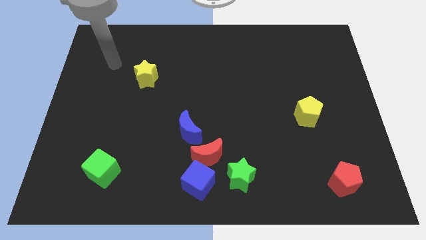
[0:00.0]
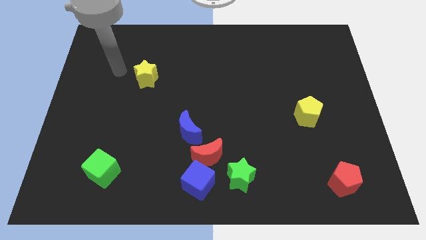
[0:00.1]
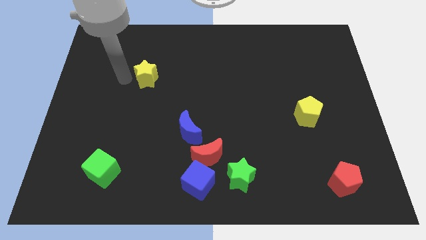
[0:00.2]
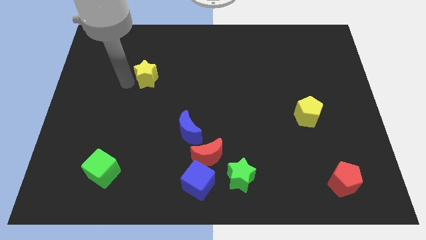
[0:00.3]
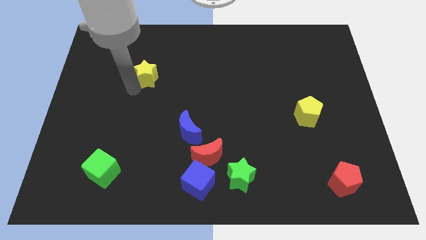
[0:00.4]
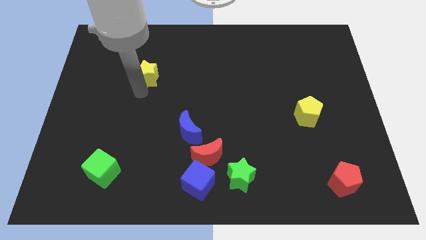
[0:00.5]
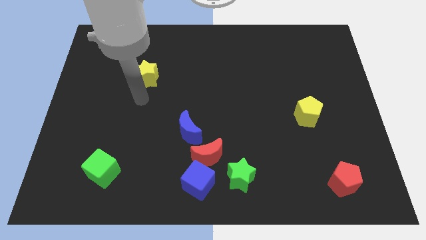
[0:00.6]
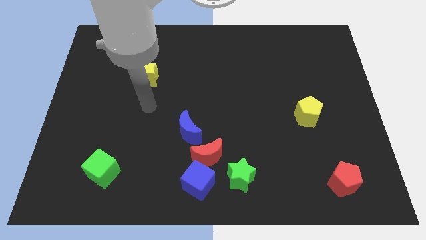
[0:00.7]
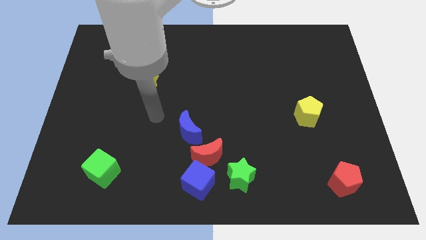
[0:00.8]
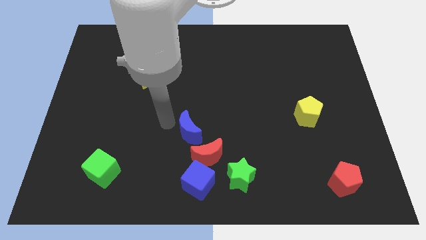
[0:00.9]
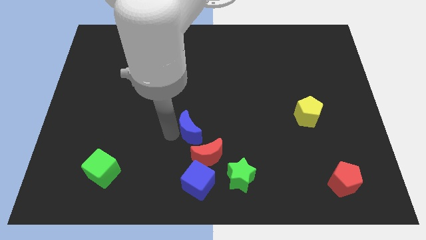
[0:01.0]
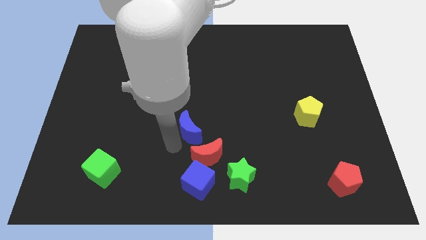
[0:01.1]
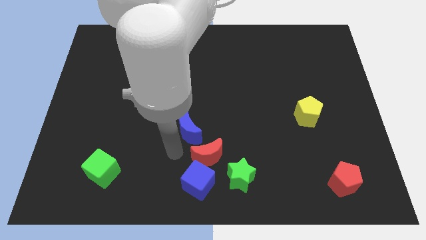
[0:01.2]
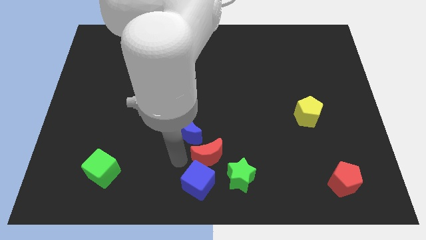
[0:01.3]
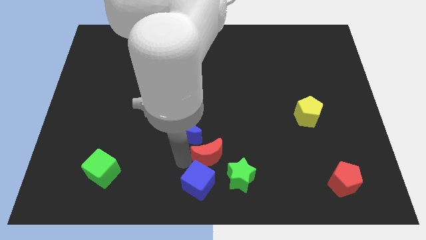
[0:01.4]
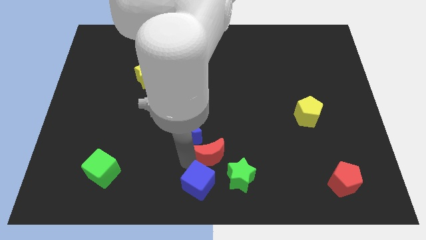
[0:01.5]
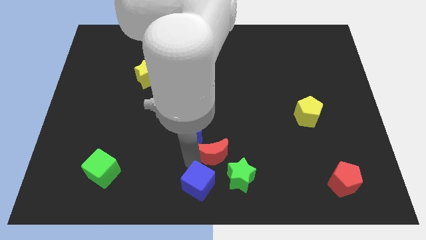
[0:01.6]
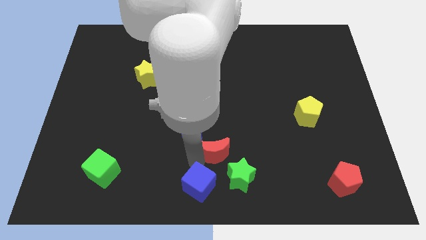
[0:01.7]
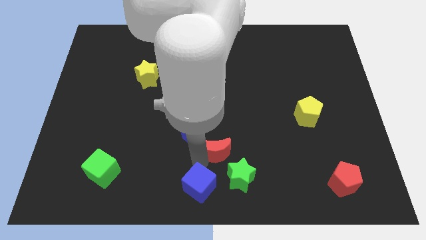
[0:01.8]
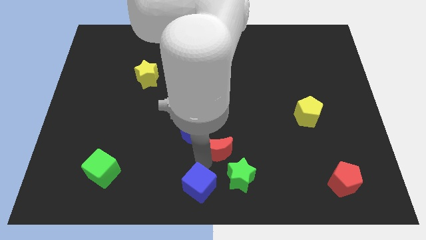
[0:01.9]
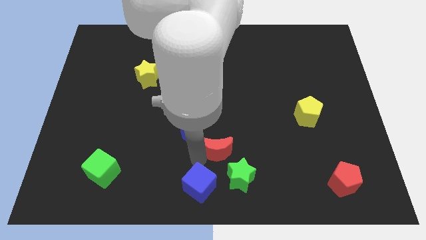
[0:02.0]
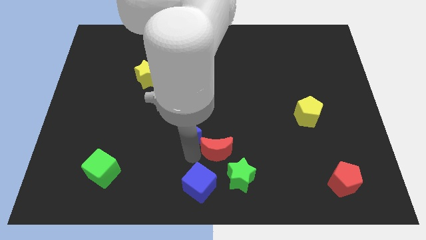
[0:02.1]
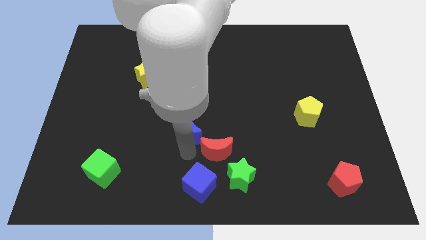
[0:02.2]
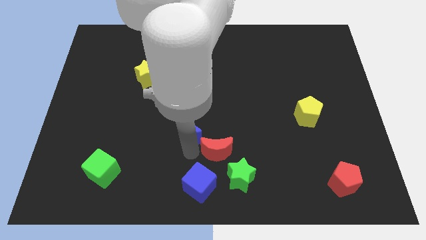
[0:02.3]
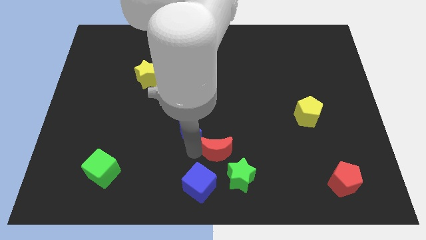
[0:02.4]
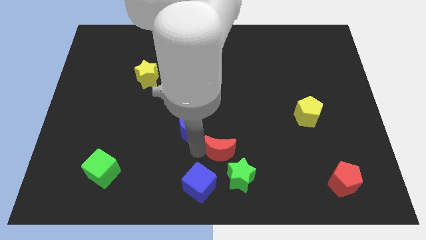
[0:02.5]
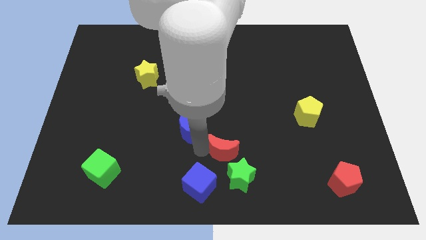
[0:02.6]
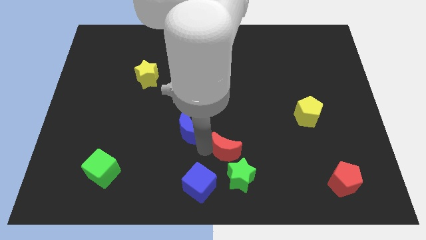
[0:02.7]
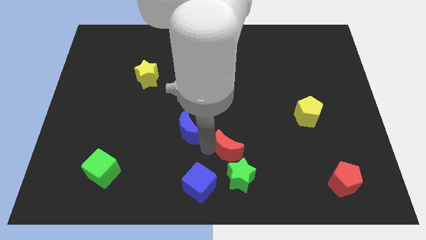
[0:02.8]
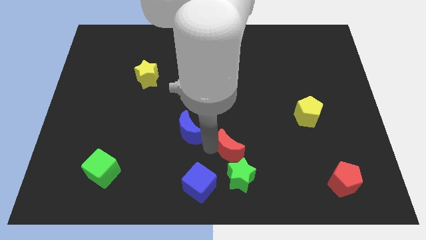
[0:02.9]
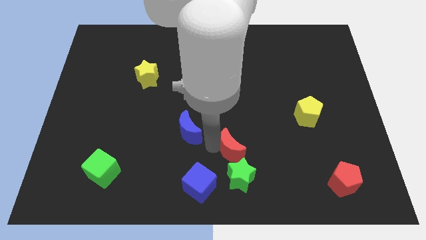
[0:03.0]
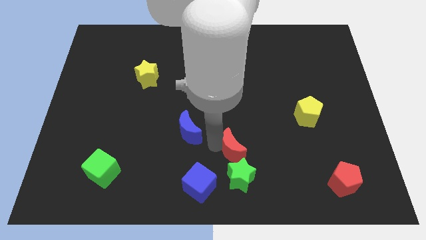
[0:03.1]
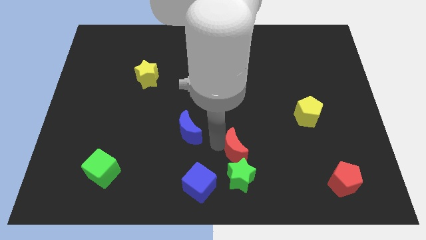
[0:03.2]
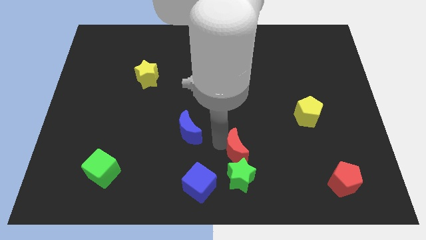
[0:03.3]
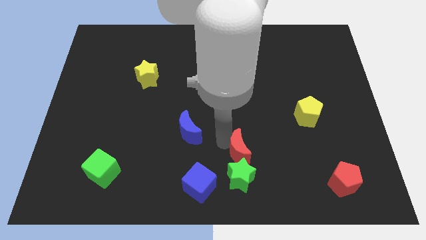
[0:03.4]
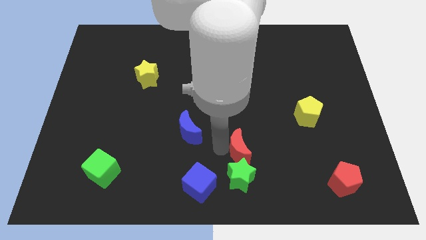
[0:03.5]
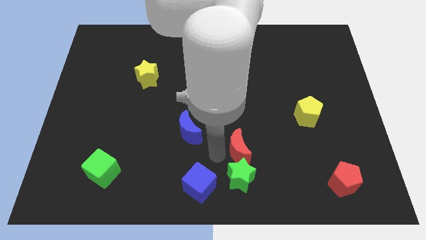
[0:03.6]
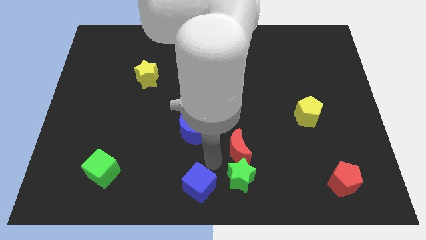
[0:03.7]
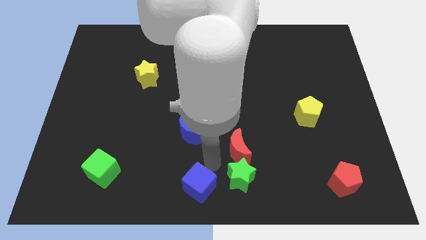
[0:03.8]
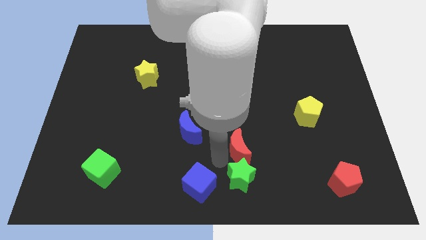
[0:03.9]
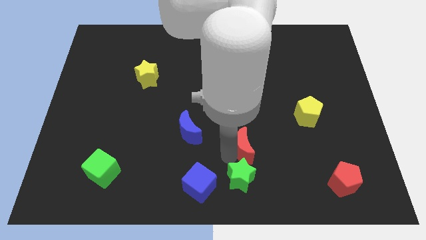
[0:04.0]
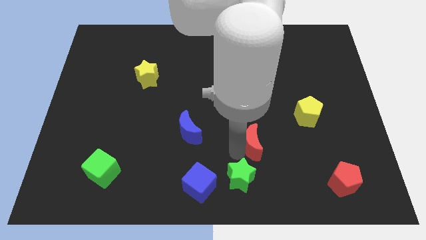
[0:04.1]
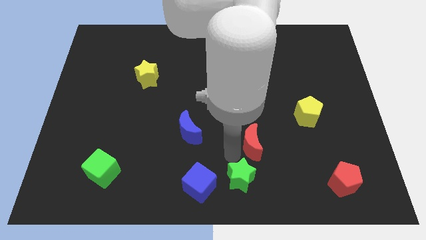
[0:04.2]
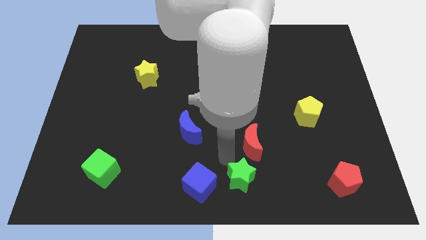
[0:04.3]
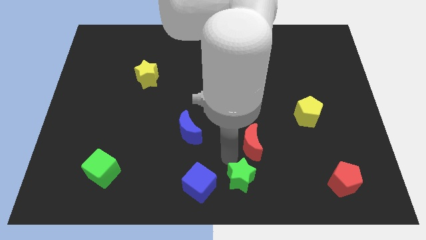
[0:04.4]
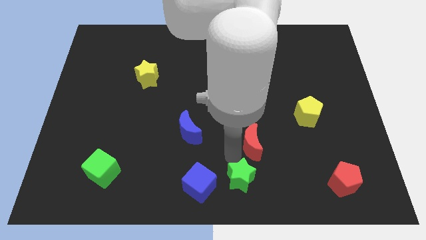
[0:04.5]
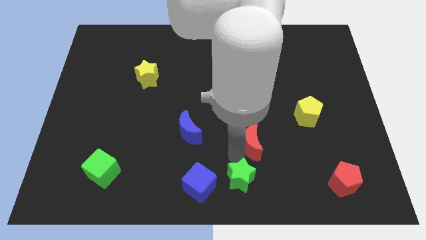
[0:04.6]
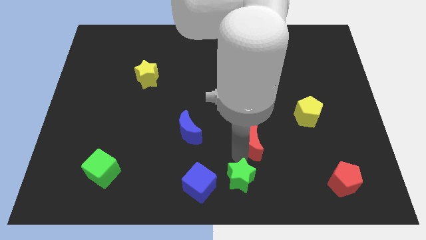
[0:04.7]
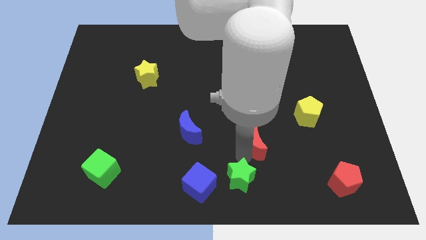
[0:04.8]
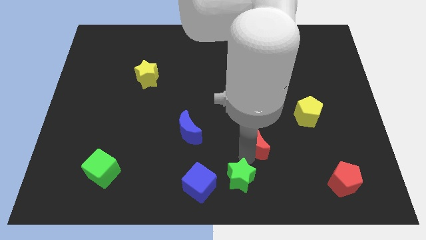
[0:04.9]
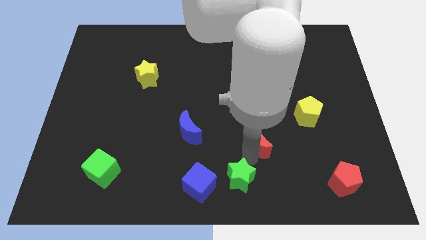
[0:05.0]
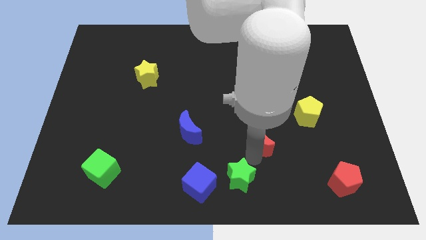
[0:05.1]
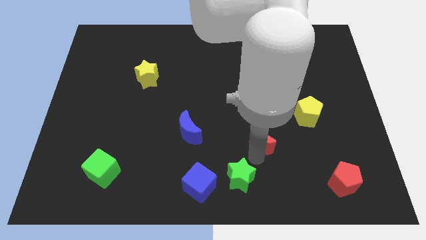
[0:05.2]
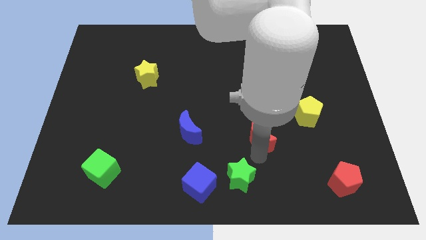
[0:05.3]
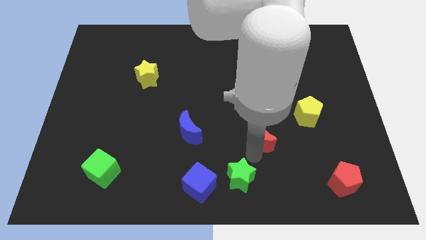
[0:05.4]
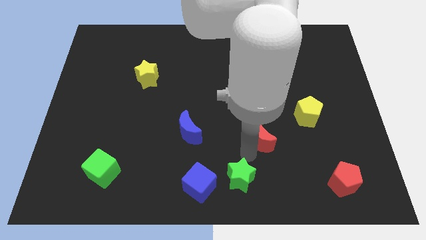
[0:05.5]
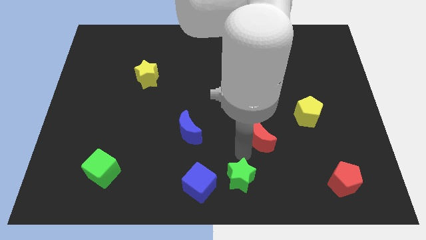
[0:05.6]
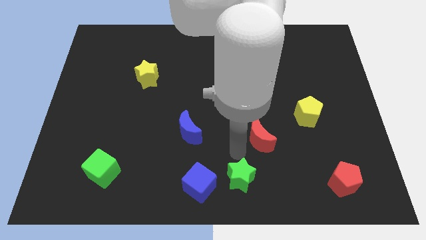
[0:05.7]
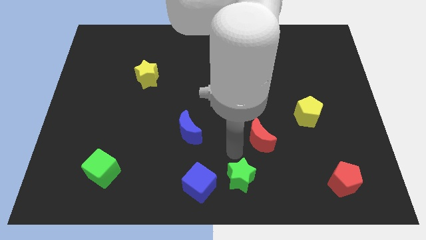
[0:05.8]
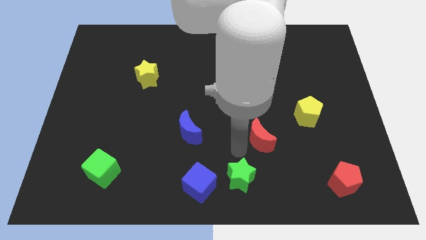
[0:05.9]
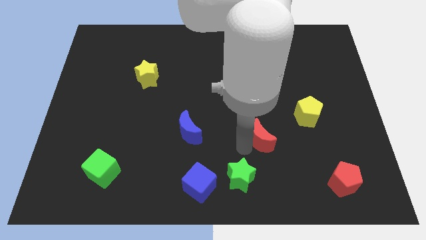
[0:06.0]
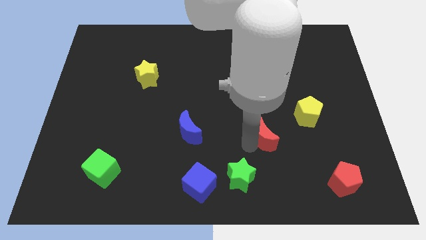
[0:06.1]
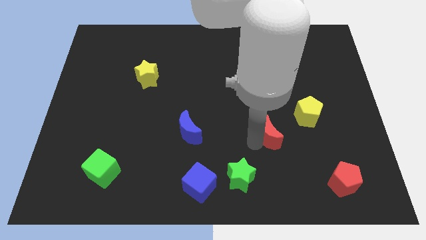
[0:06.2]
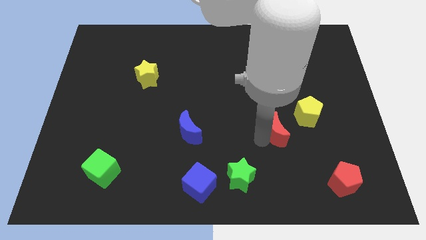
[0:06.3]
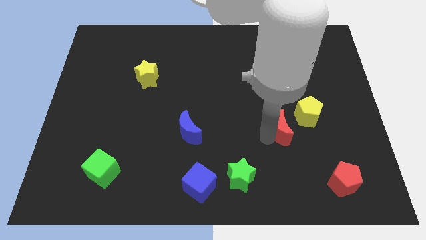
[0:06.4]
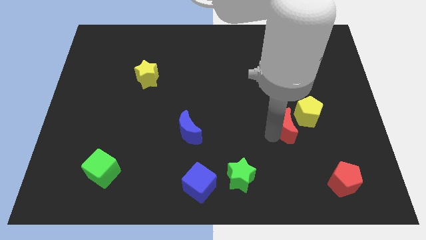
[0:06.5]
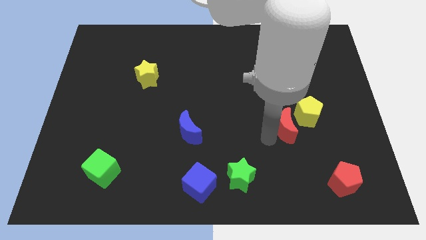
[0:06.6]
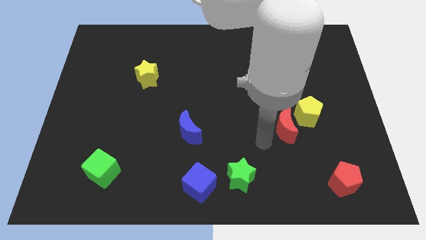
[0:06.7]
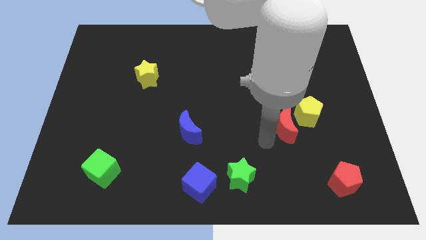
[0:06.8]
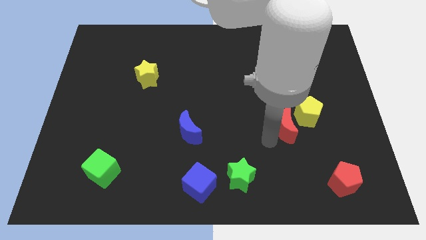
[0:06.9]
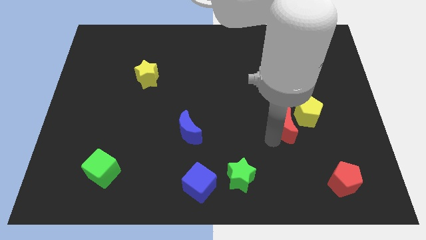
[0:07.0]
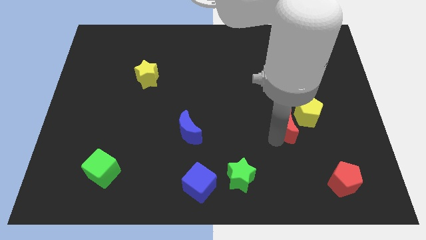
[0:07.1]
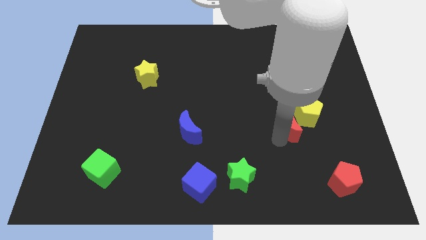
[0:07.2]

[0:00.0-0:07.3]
slide the red moon to the yellow pentagon
